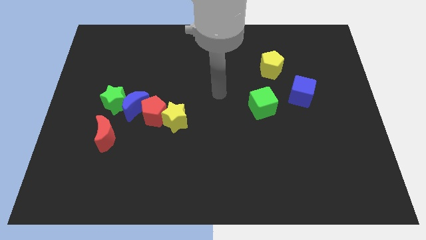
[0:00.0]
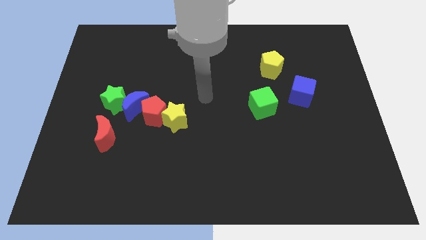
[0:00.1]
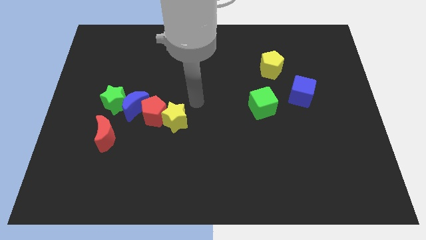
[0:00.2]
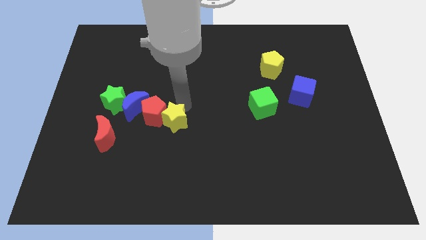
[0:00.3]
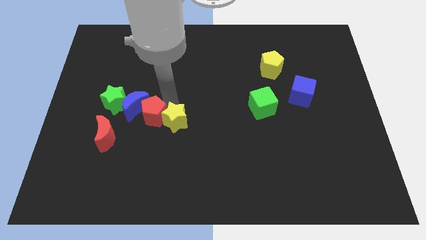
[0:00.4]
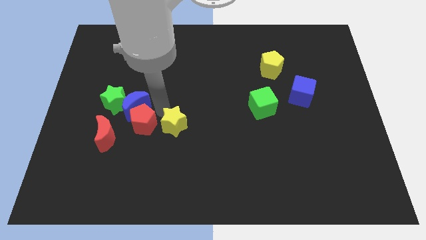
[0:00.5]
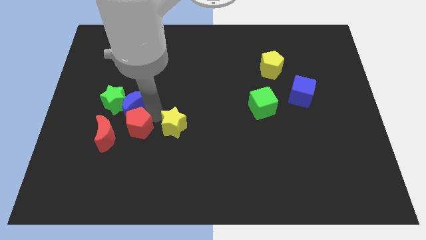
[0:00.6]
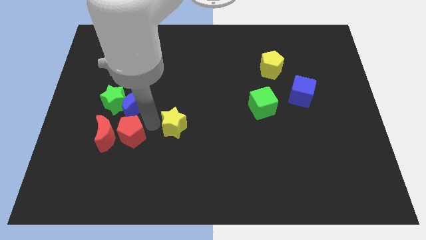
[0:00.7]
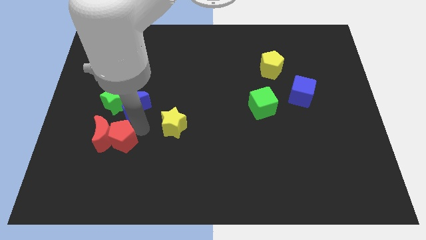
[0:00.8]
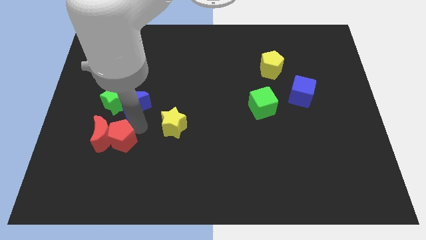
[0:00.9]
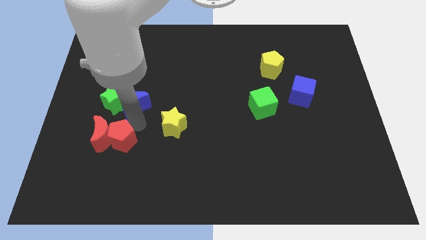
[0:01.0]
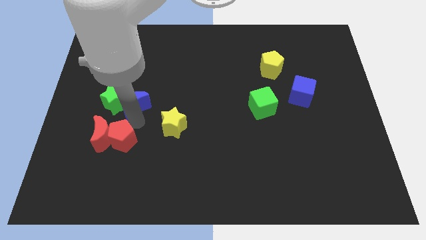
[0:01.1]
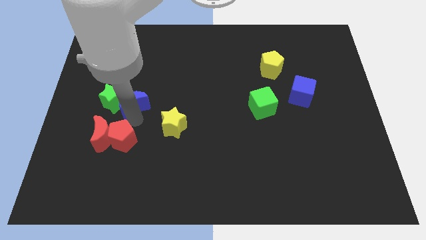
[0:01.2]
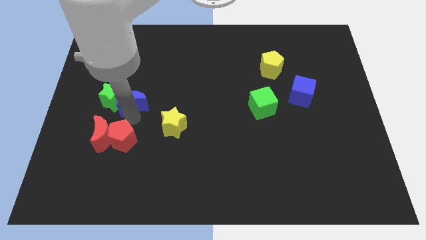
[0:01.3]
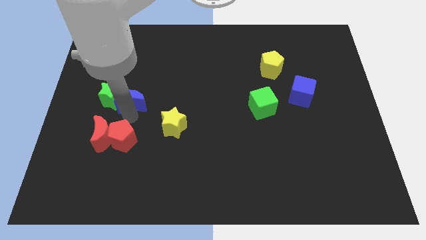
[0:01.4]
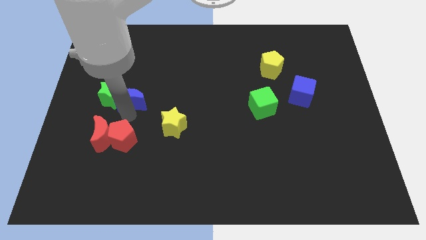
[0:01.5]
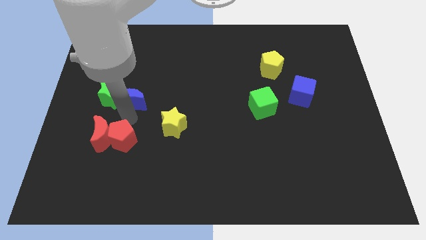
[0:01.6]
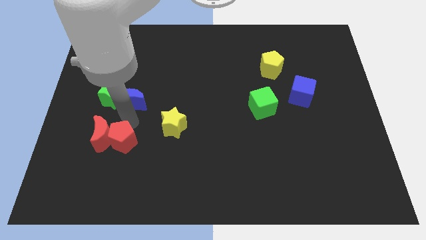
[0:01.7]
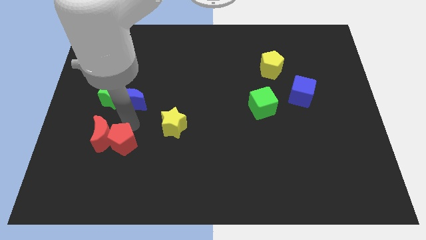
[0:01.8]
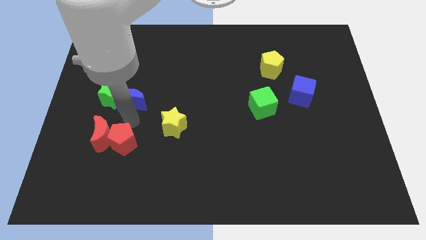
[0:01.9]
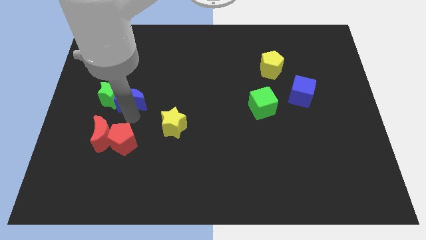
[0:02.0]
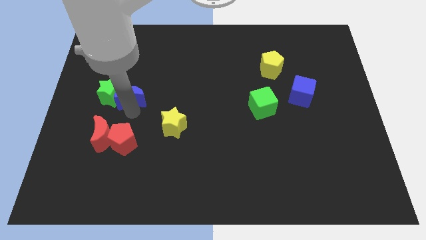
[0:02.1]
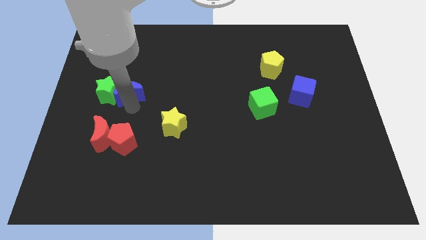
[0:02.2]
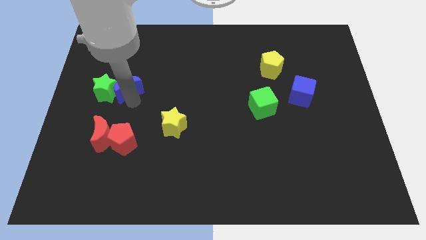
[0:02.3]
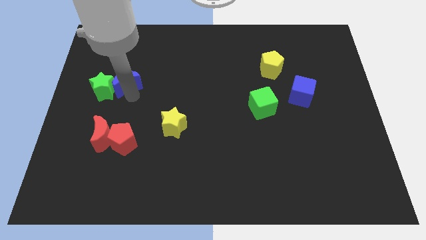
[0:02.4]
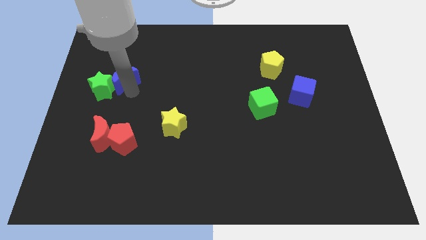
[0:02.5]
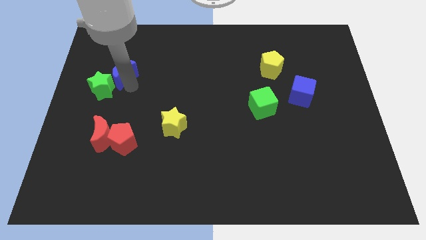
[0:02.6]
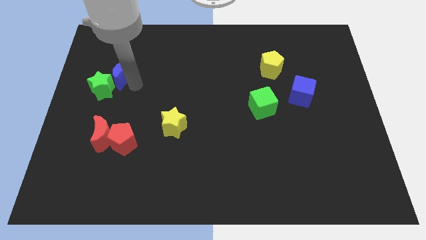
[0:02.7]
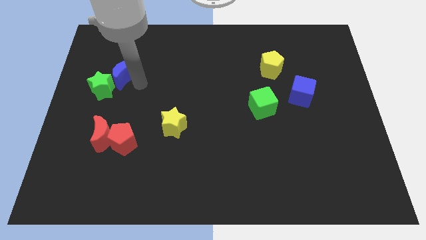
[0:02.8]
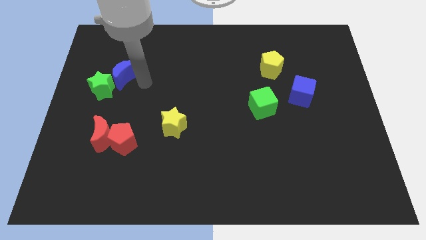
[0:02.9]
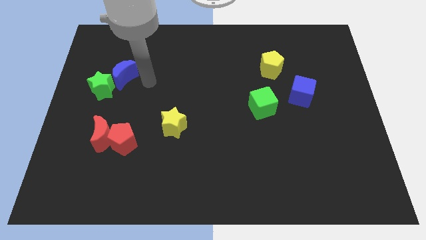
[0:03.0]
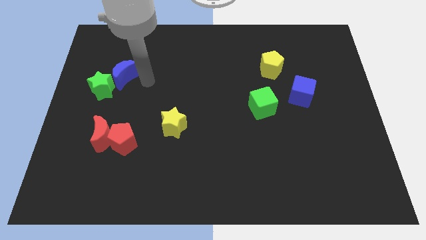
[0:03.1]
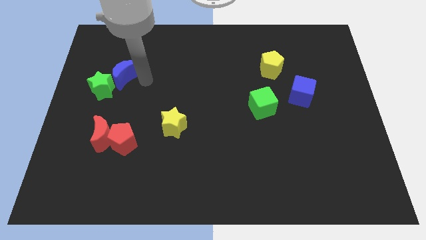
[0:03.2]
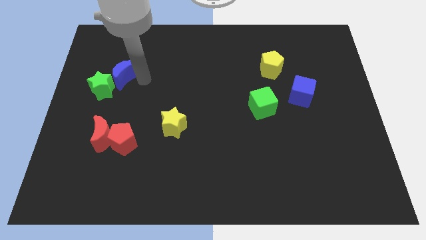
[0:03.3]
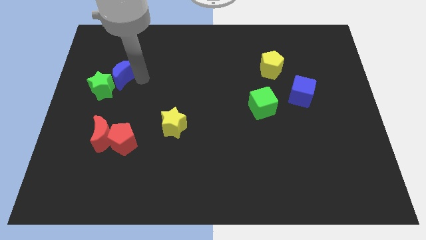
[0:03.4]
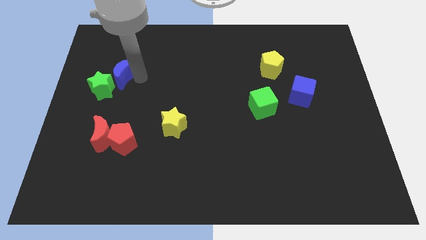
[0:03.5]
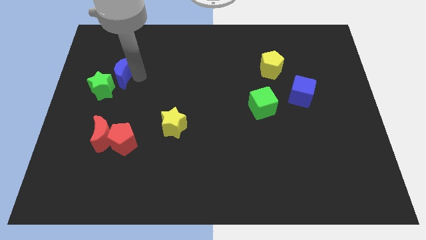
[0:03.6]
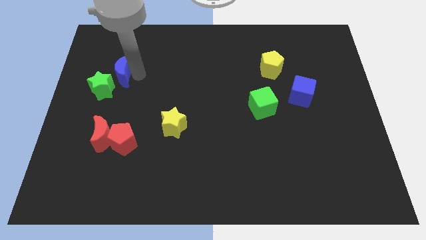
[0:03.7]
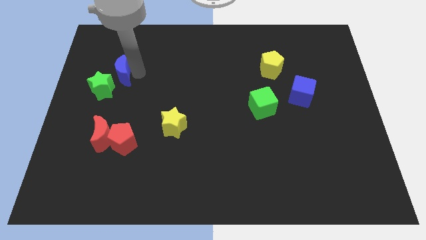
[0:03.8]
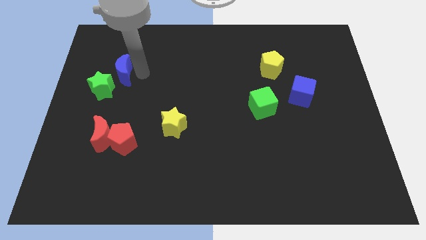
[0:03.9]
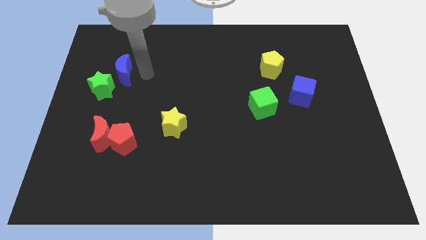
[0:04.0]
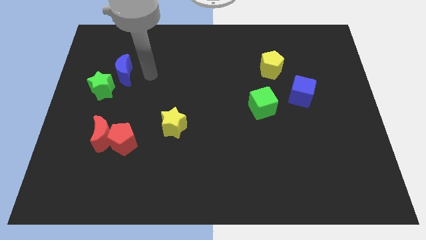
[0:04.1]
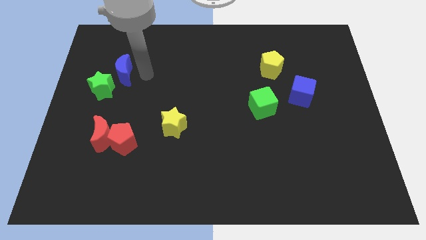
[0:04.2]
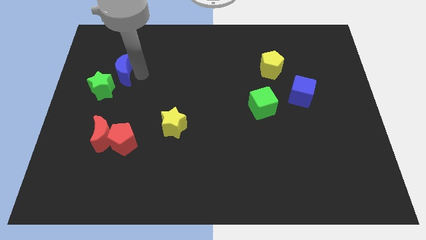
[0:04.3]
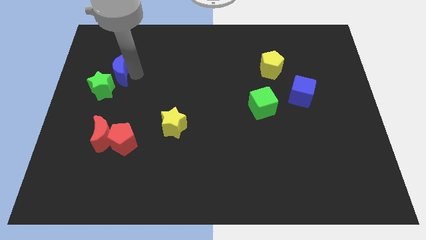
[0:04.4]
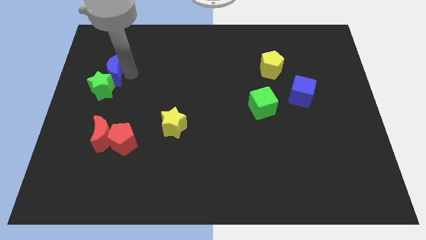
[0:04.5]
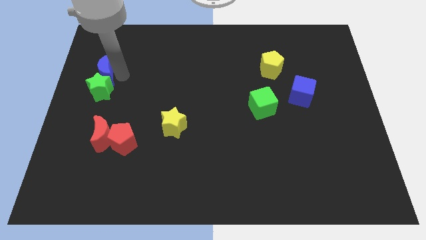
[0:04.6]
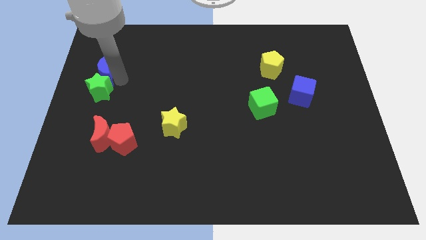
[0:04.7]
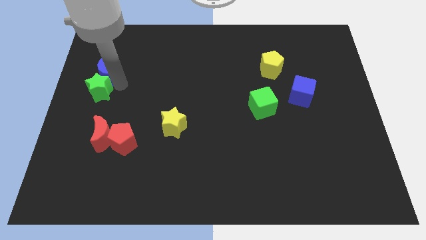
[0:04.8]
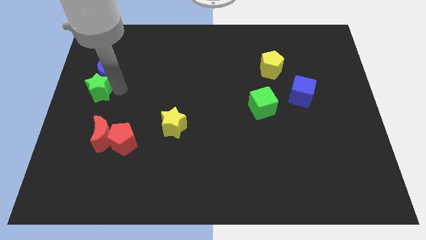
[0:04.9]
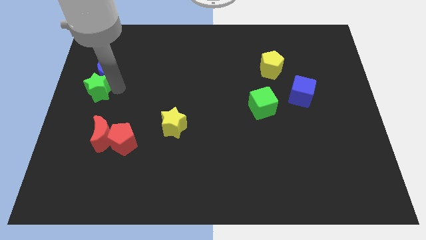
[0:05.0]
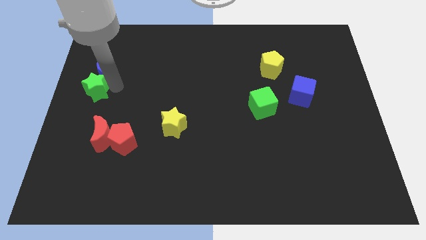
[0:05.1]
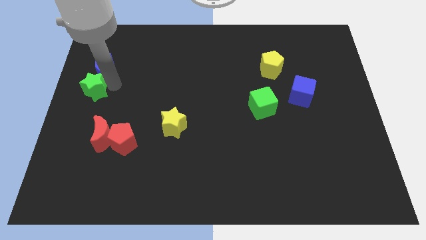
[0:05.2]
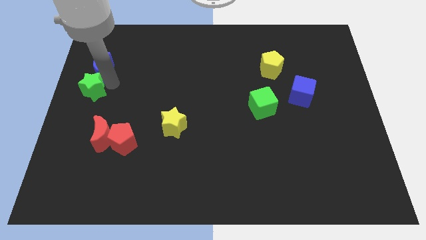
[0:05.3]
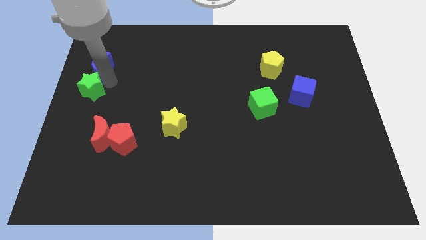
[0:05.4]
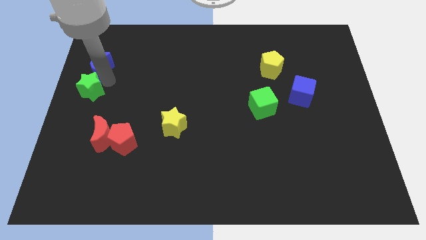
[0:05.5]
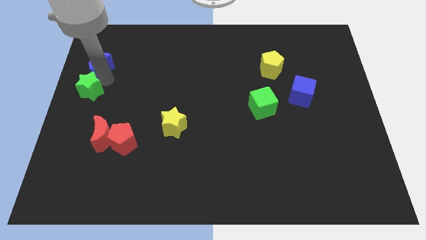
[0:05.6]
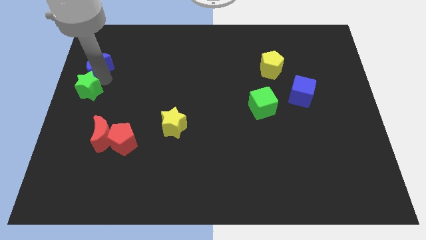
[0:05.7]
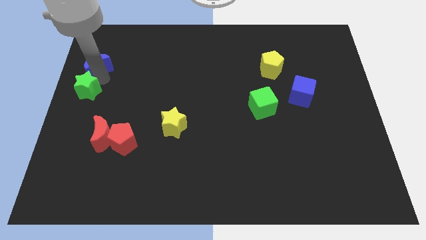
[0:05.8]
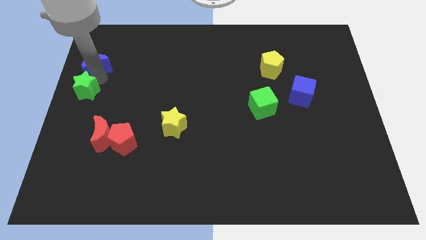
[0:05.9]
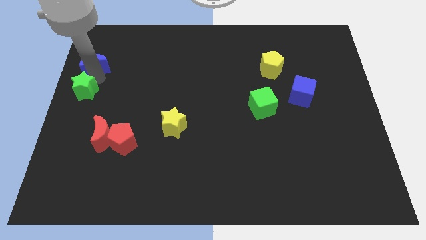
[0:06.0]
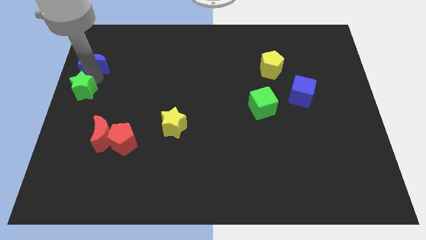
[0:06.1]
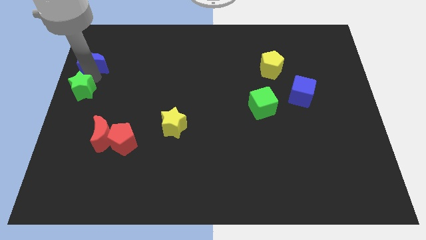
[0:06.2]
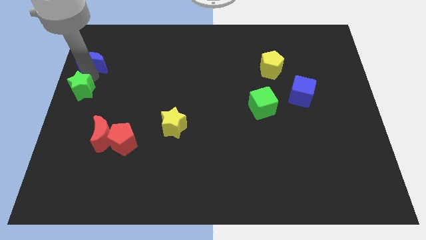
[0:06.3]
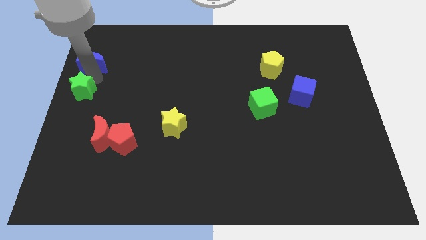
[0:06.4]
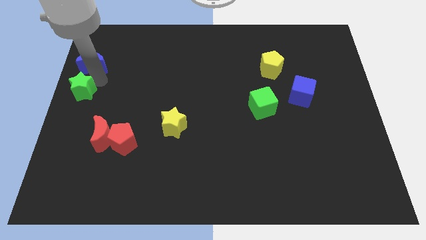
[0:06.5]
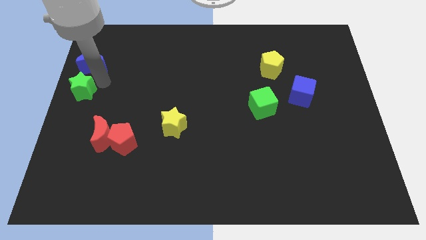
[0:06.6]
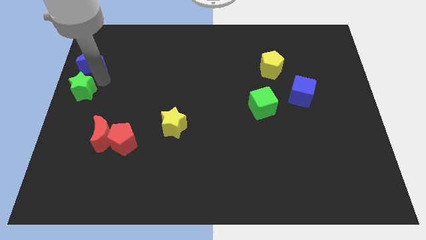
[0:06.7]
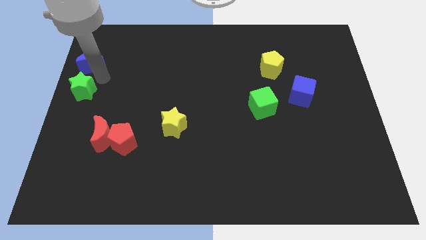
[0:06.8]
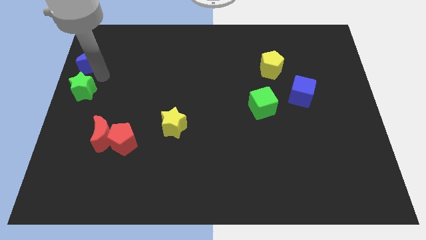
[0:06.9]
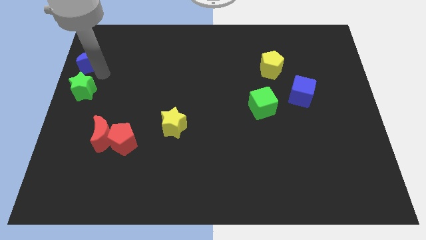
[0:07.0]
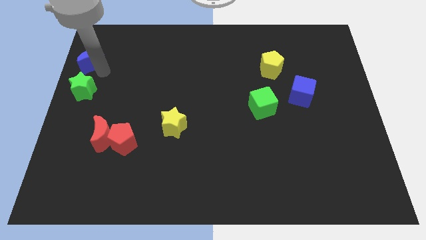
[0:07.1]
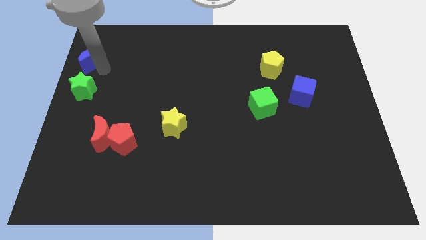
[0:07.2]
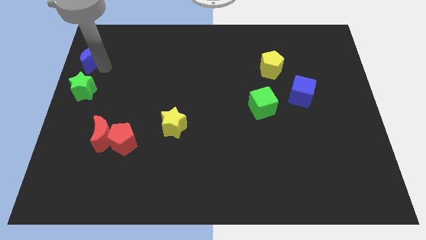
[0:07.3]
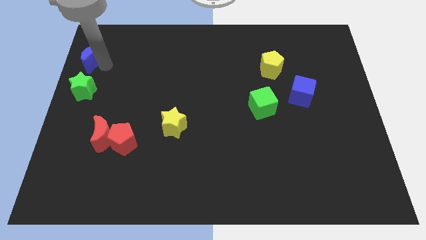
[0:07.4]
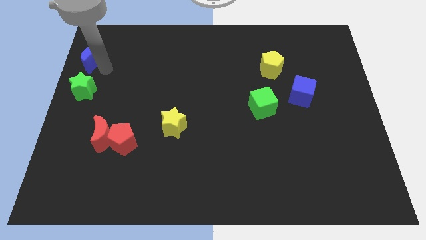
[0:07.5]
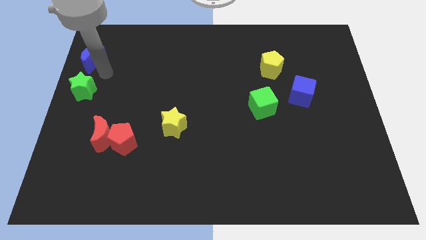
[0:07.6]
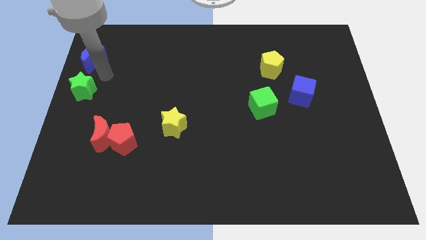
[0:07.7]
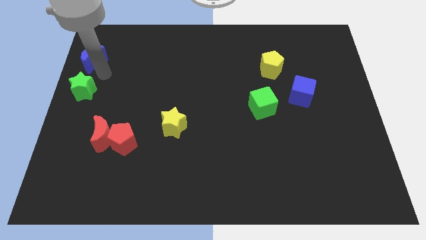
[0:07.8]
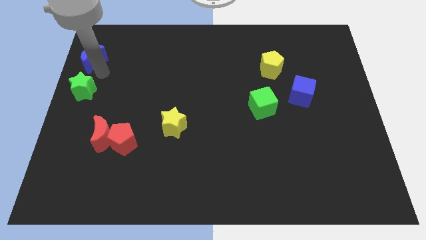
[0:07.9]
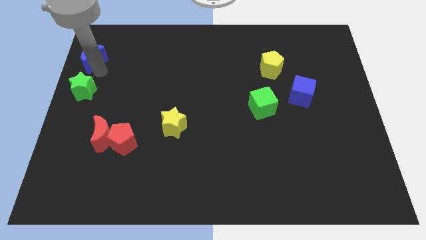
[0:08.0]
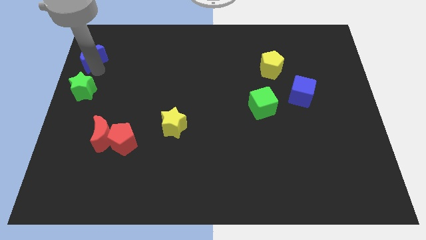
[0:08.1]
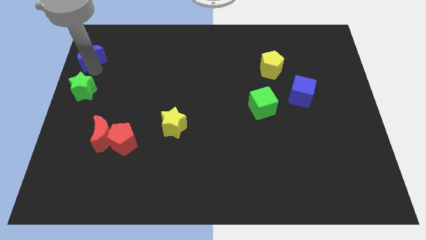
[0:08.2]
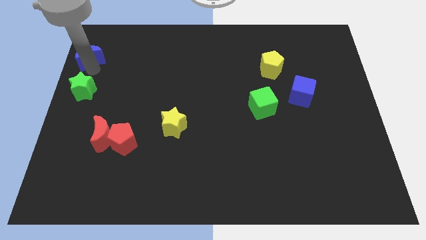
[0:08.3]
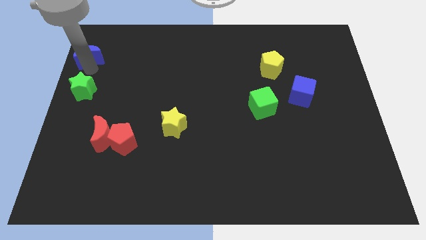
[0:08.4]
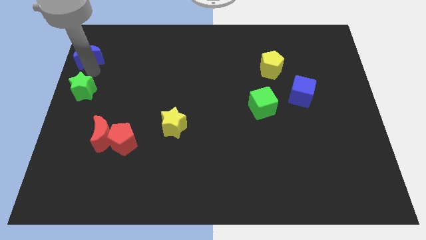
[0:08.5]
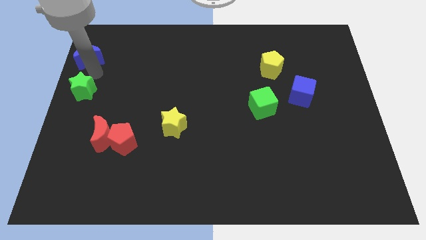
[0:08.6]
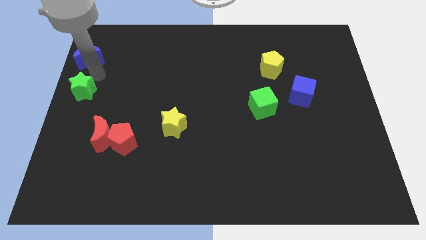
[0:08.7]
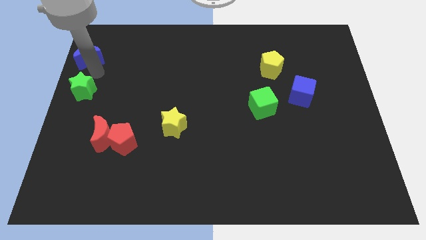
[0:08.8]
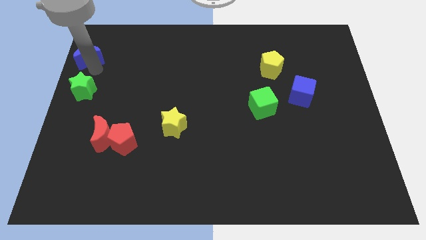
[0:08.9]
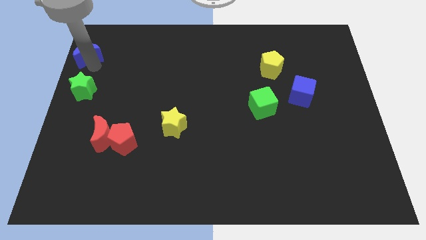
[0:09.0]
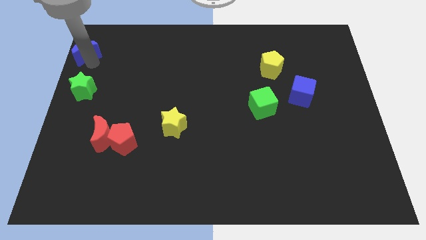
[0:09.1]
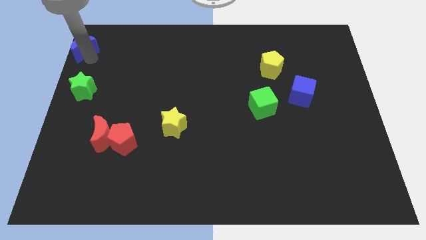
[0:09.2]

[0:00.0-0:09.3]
move the blue moon to the top left of the board
